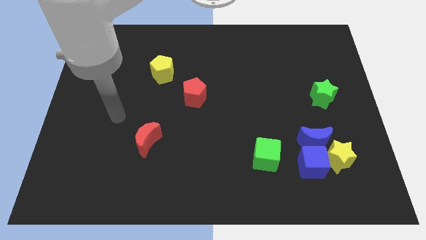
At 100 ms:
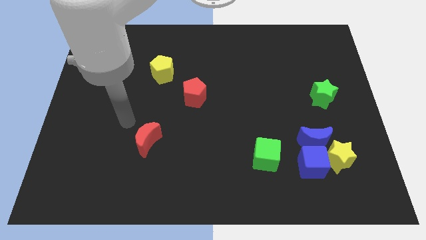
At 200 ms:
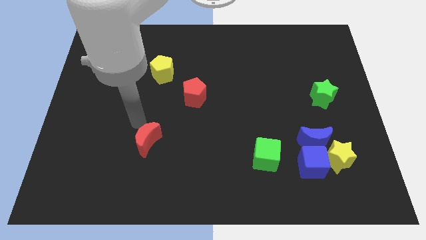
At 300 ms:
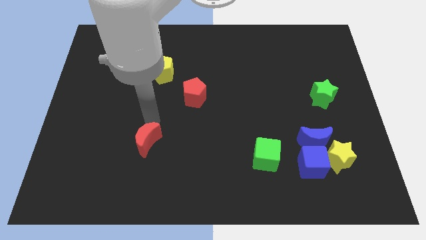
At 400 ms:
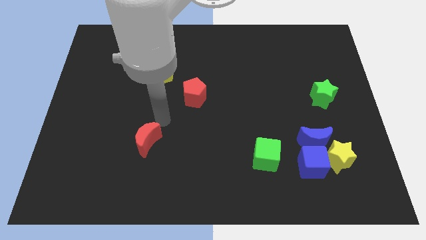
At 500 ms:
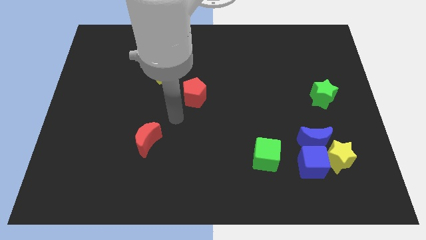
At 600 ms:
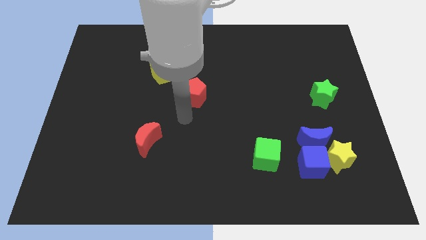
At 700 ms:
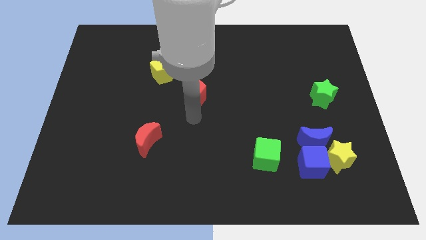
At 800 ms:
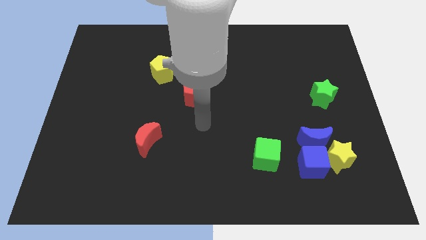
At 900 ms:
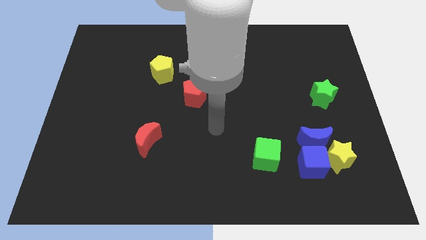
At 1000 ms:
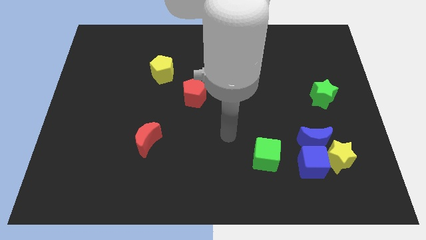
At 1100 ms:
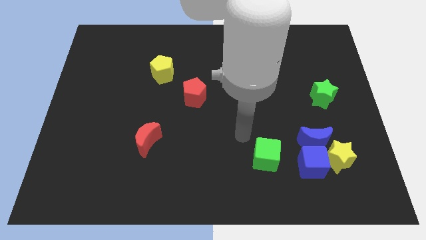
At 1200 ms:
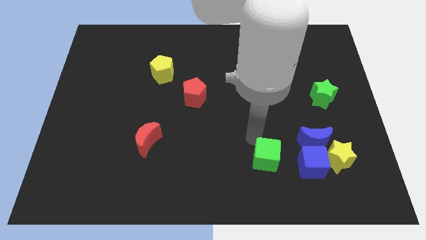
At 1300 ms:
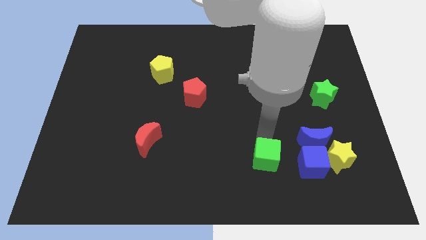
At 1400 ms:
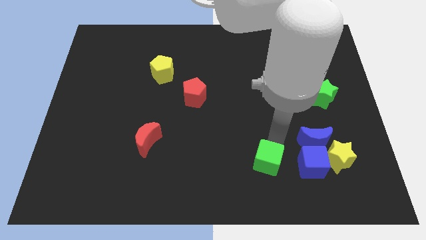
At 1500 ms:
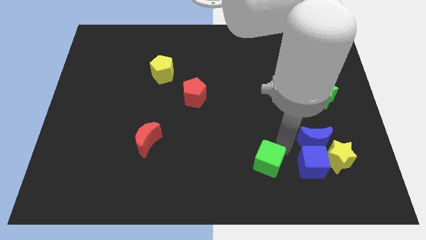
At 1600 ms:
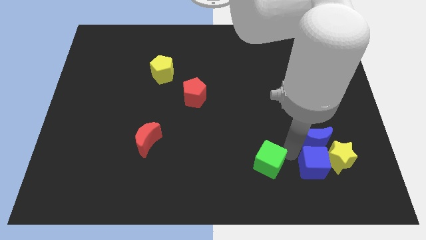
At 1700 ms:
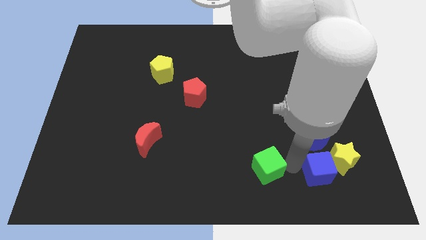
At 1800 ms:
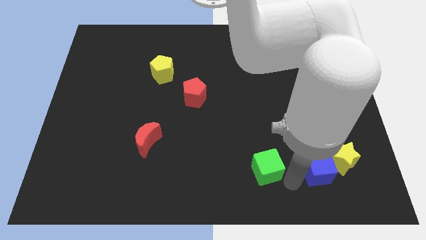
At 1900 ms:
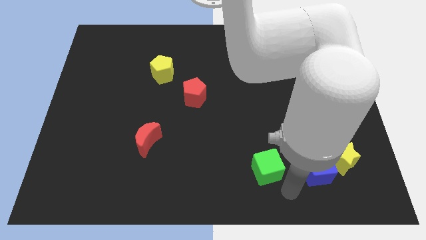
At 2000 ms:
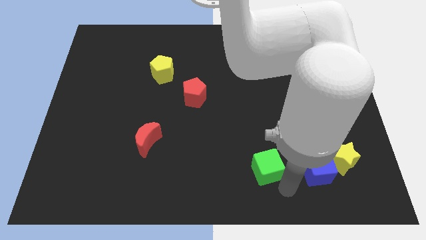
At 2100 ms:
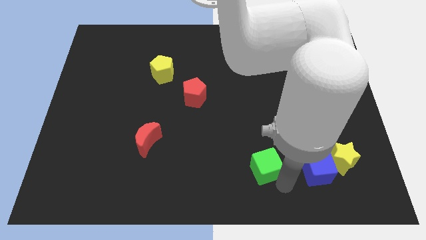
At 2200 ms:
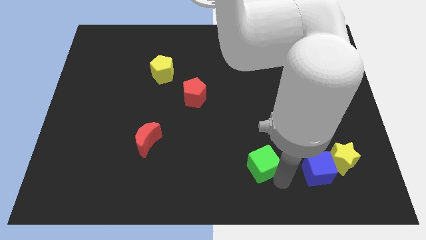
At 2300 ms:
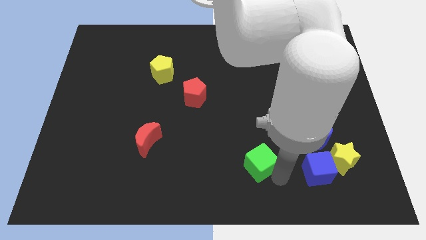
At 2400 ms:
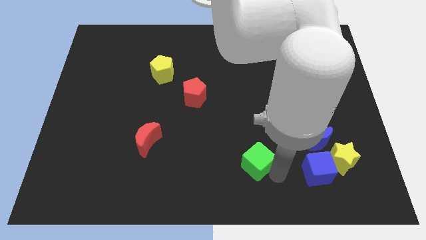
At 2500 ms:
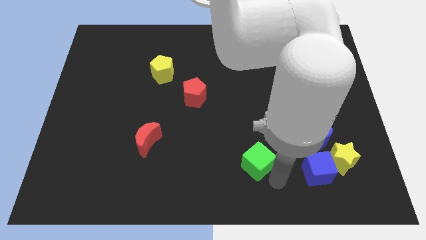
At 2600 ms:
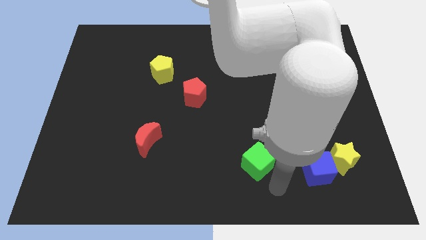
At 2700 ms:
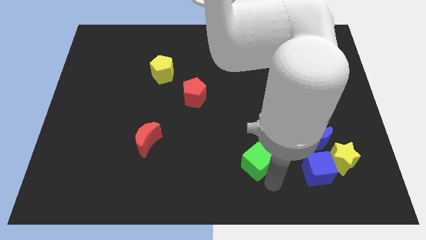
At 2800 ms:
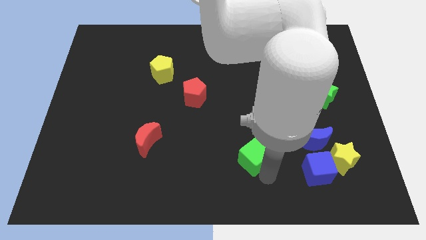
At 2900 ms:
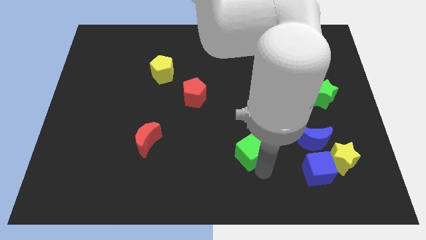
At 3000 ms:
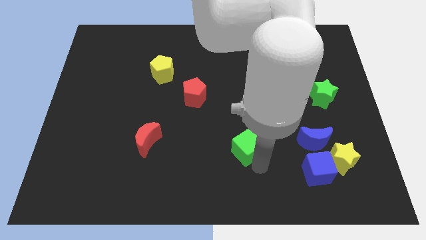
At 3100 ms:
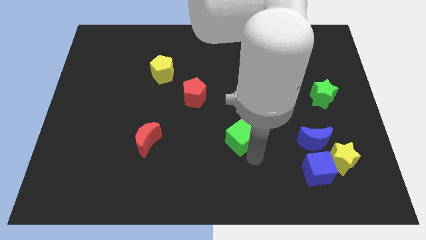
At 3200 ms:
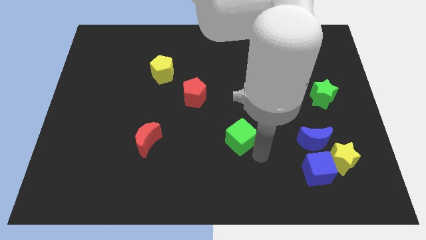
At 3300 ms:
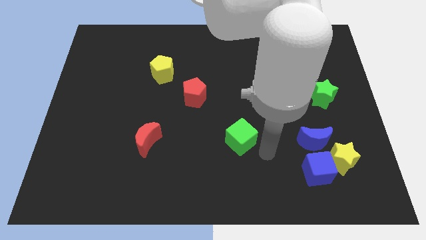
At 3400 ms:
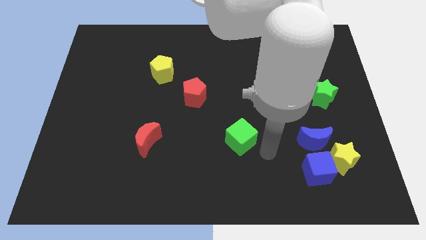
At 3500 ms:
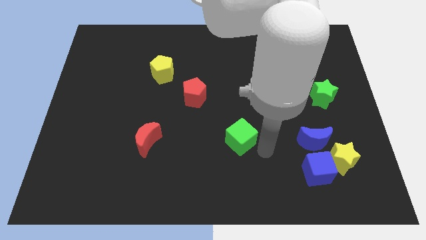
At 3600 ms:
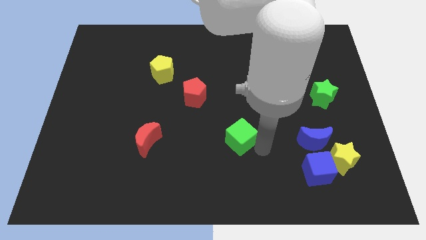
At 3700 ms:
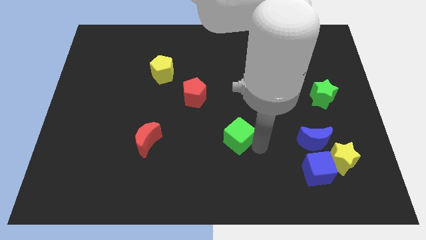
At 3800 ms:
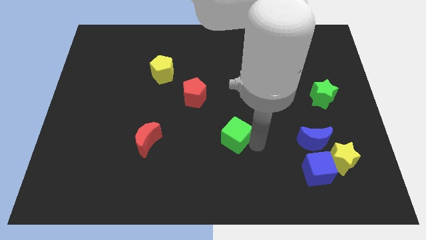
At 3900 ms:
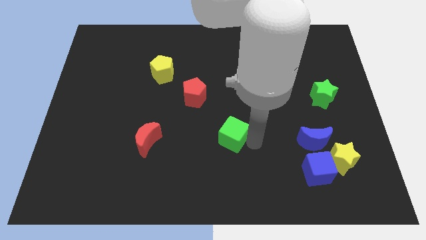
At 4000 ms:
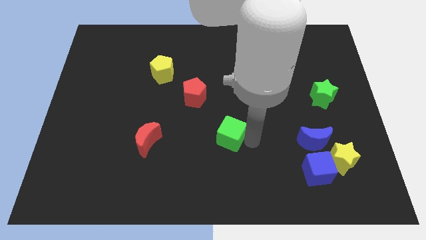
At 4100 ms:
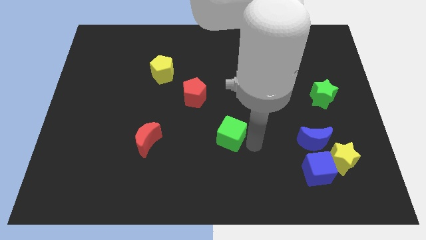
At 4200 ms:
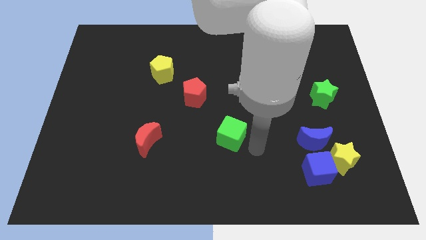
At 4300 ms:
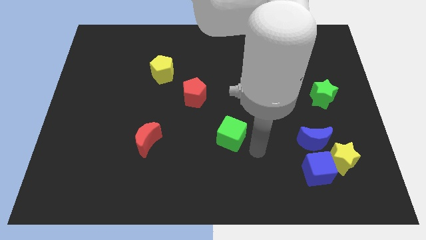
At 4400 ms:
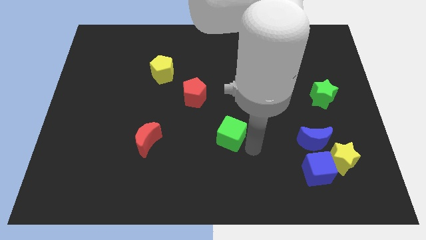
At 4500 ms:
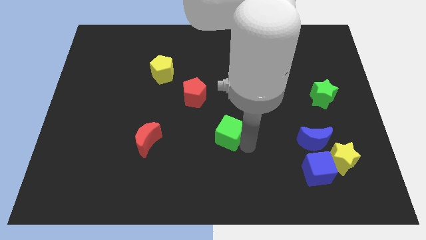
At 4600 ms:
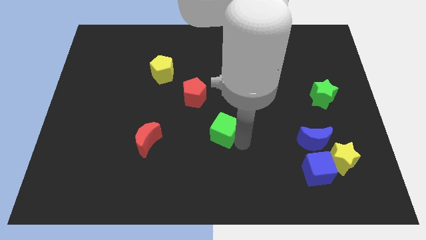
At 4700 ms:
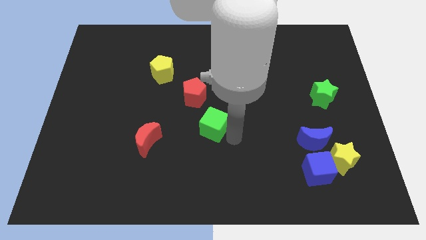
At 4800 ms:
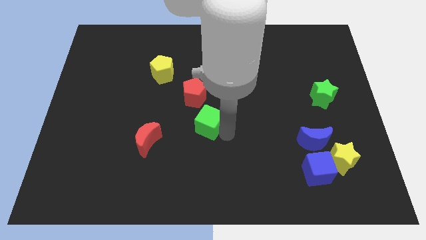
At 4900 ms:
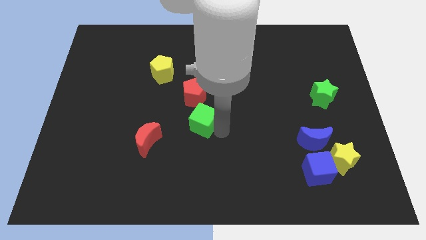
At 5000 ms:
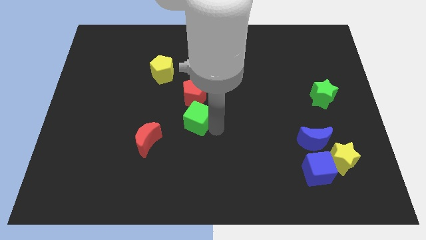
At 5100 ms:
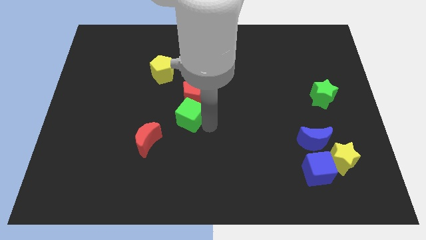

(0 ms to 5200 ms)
slide the green cube diagonally down and to the left of the red pentagon

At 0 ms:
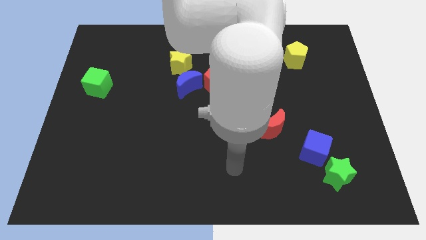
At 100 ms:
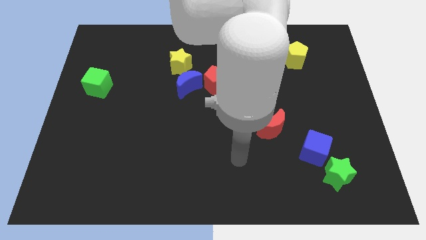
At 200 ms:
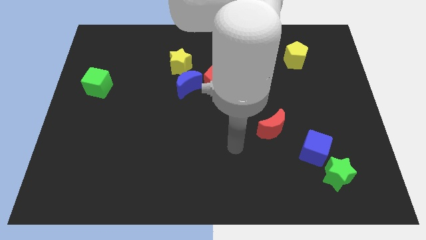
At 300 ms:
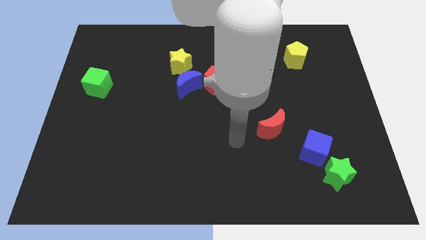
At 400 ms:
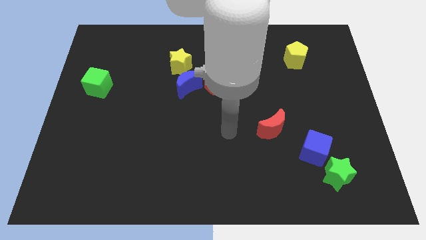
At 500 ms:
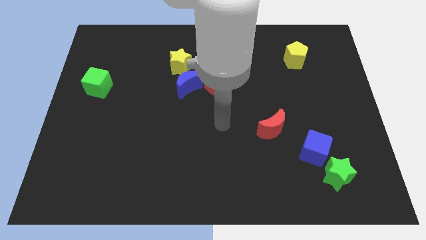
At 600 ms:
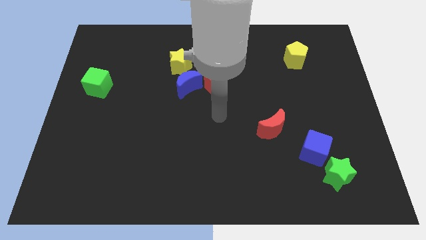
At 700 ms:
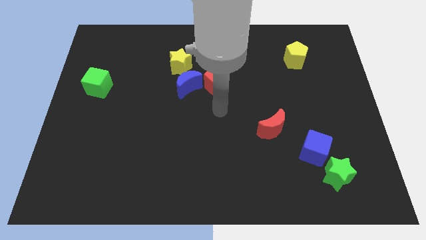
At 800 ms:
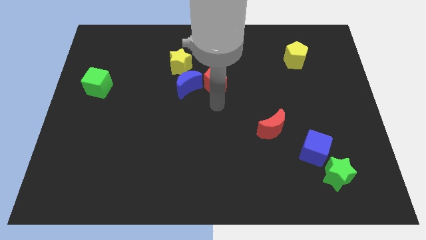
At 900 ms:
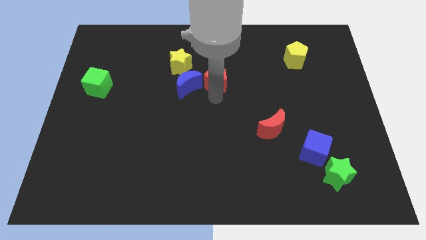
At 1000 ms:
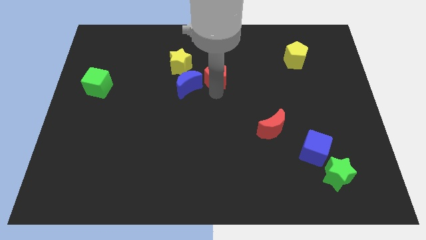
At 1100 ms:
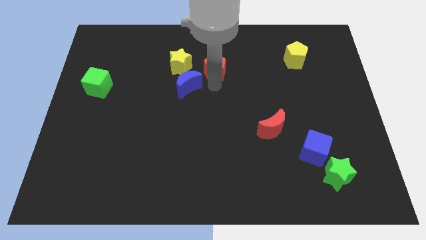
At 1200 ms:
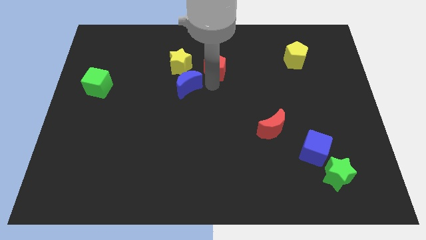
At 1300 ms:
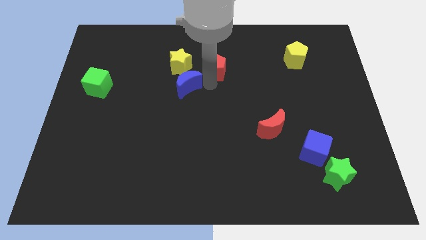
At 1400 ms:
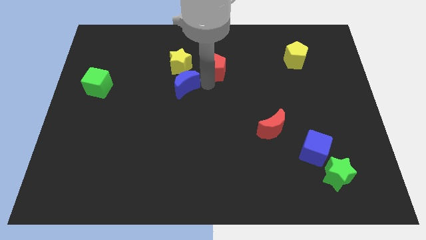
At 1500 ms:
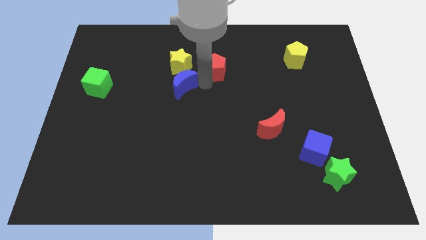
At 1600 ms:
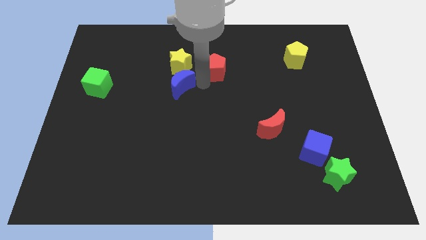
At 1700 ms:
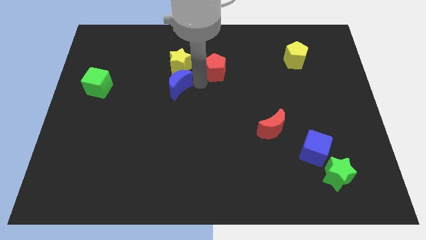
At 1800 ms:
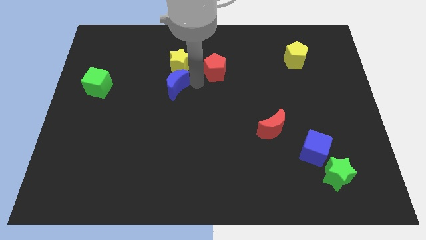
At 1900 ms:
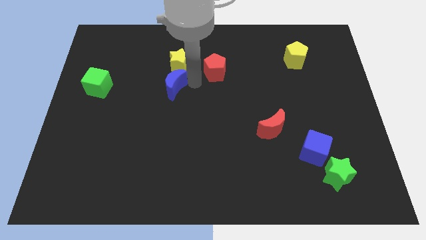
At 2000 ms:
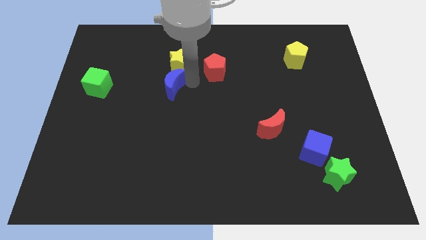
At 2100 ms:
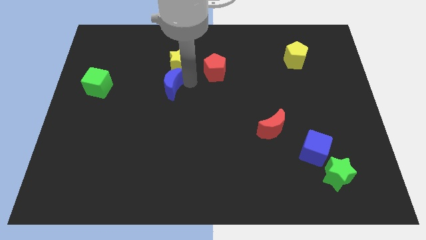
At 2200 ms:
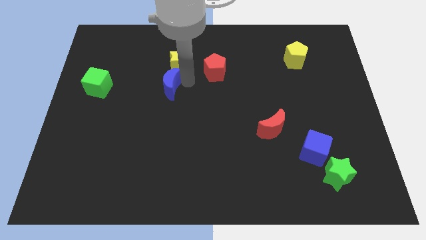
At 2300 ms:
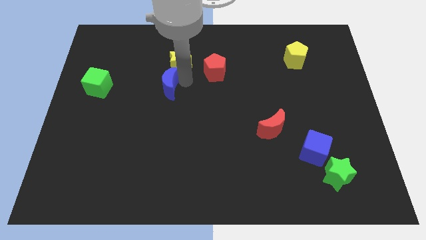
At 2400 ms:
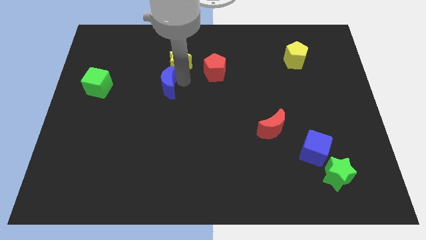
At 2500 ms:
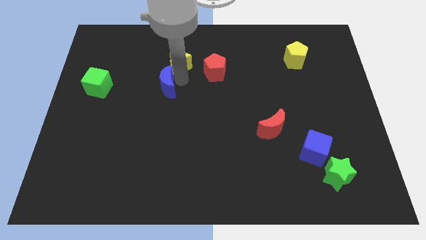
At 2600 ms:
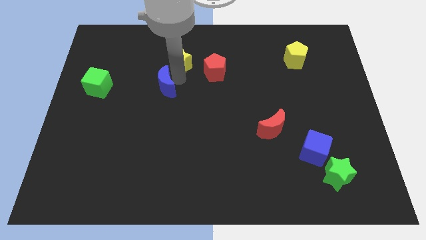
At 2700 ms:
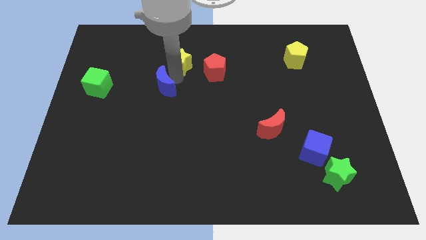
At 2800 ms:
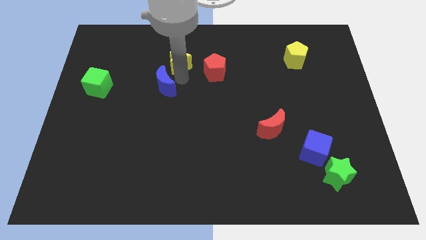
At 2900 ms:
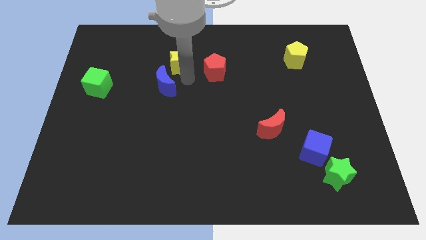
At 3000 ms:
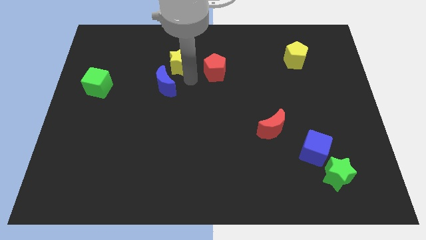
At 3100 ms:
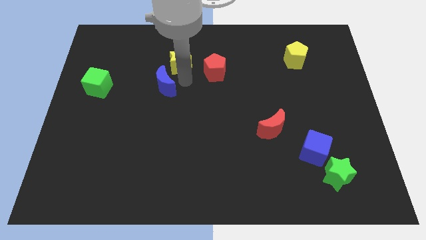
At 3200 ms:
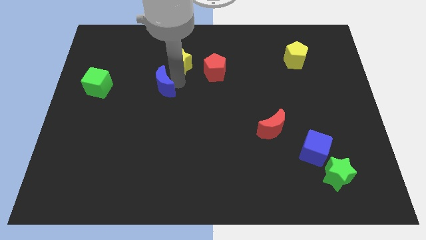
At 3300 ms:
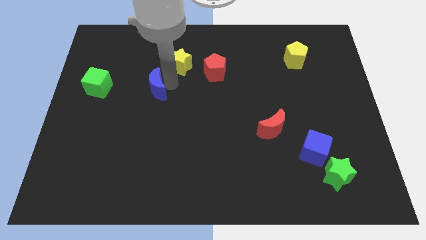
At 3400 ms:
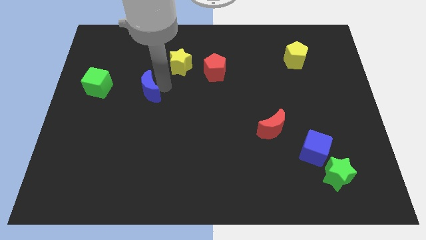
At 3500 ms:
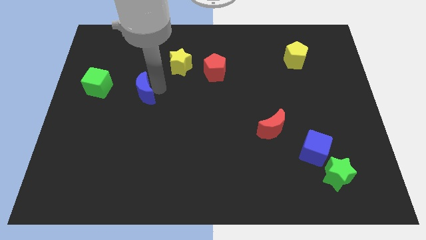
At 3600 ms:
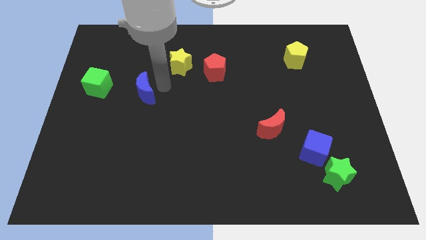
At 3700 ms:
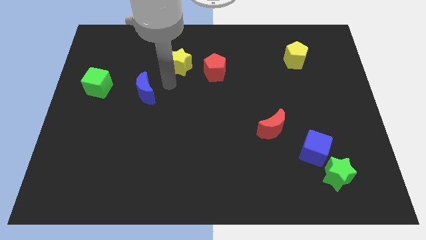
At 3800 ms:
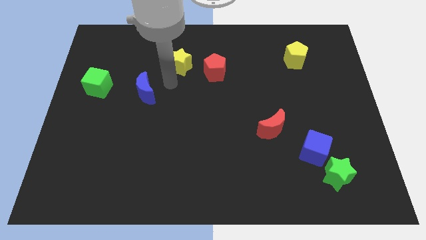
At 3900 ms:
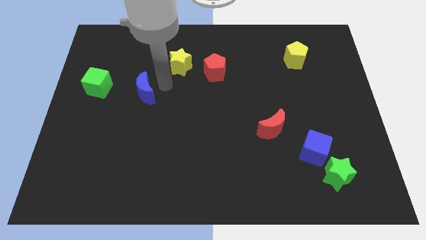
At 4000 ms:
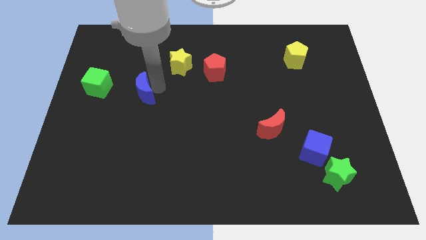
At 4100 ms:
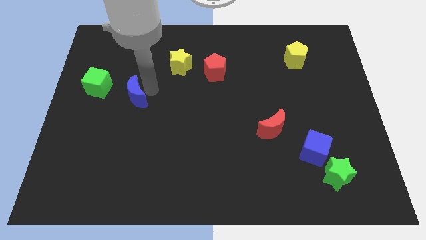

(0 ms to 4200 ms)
slide the blue moon to the bottom right side of the green cube
